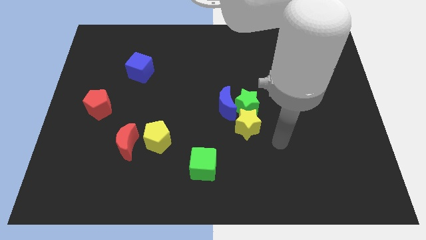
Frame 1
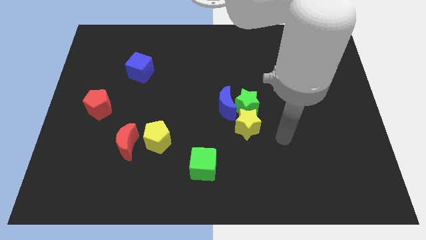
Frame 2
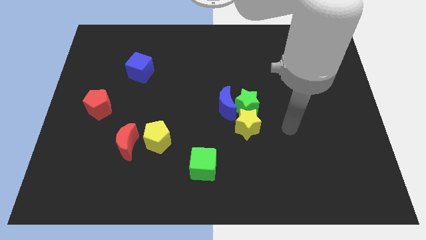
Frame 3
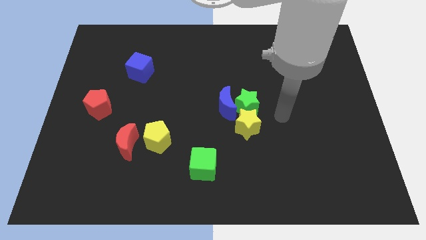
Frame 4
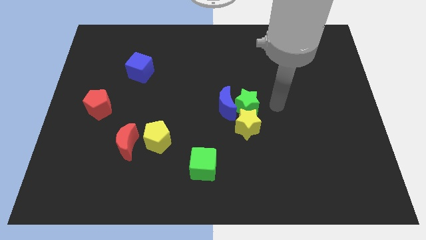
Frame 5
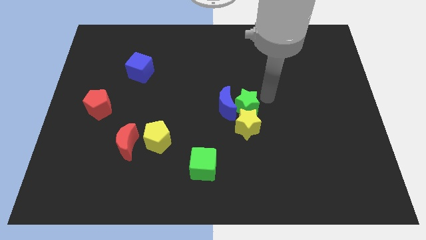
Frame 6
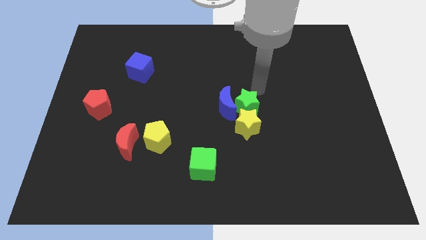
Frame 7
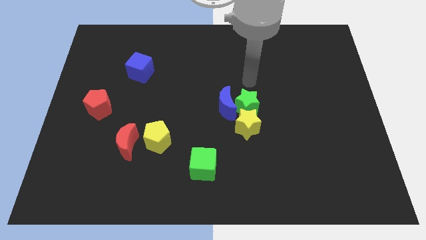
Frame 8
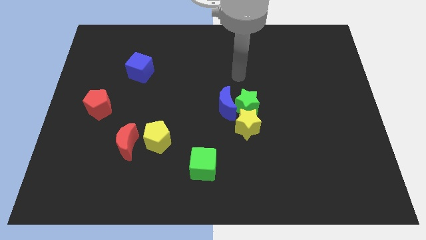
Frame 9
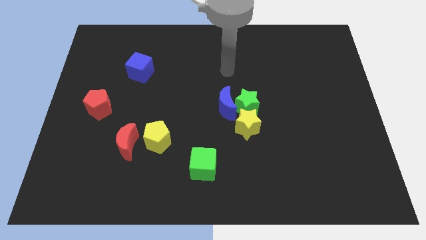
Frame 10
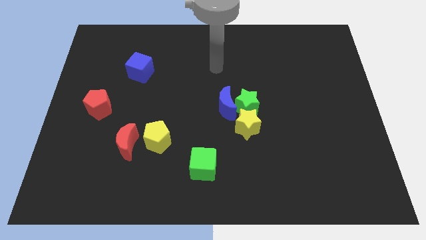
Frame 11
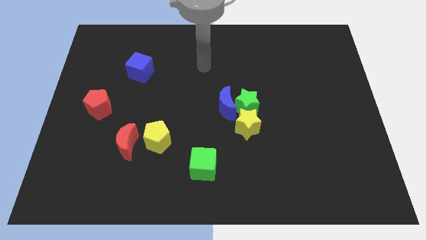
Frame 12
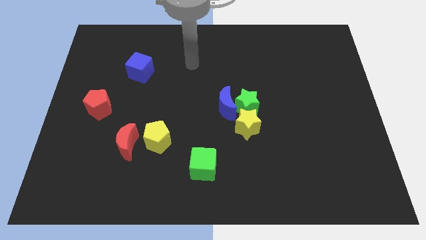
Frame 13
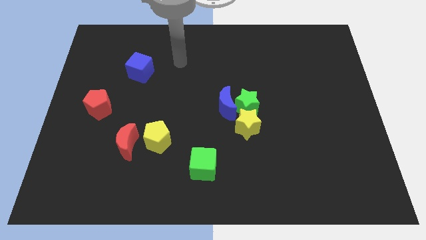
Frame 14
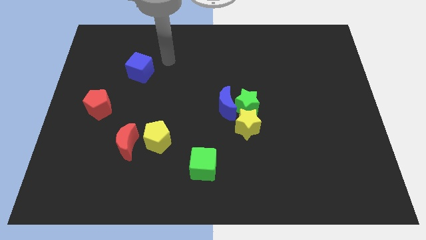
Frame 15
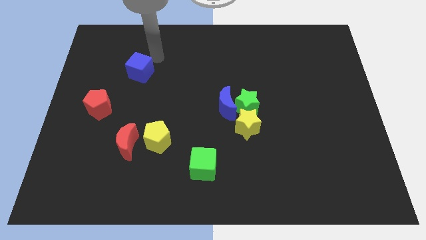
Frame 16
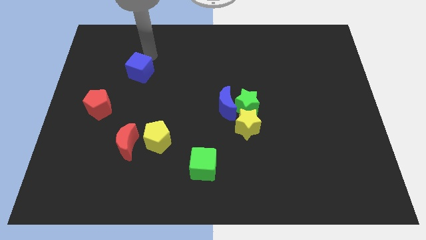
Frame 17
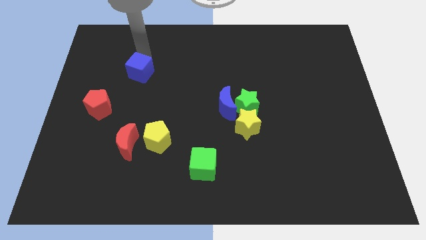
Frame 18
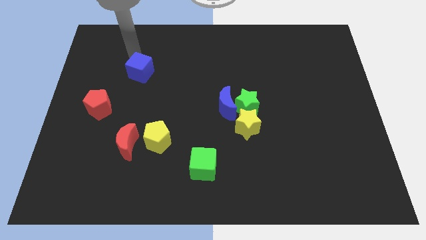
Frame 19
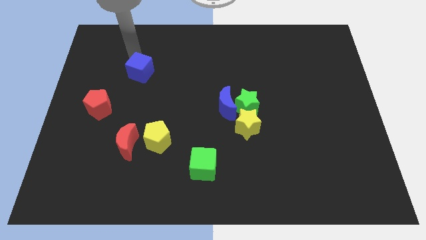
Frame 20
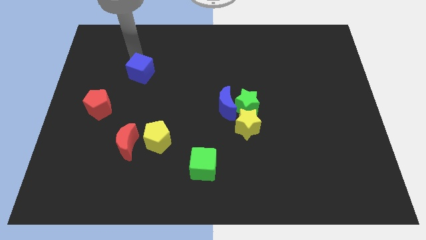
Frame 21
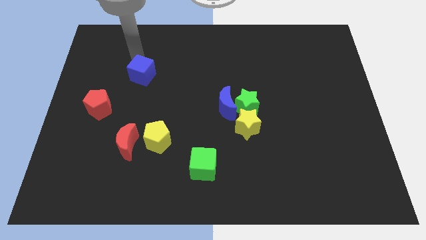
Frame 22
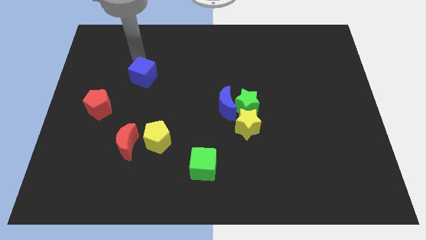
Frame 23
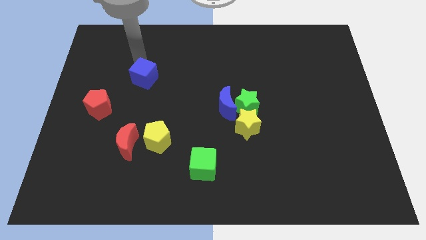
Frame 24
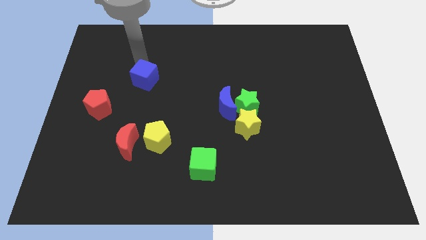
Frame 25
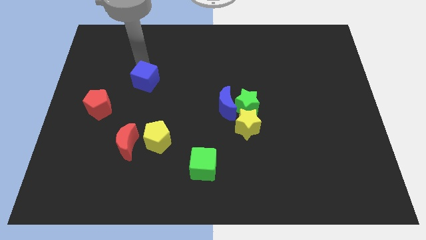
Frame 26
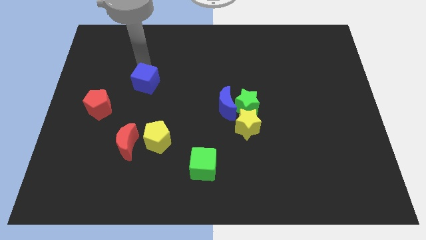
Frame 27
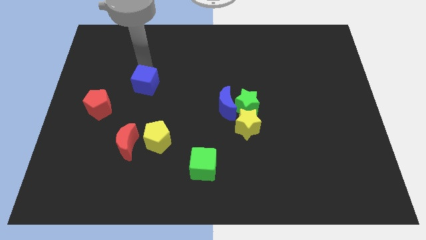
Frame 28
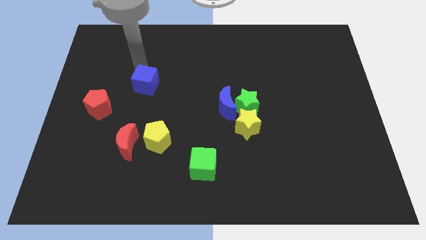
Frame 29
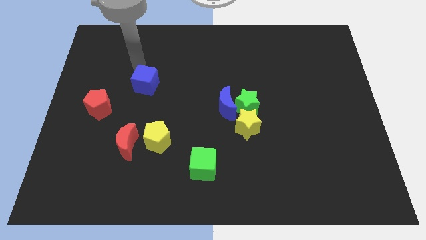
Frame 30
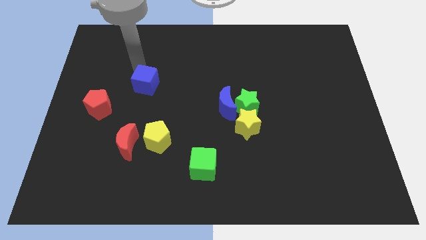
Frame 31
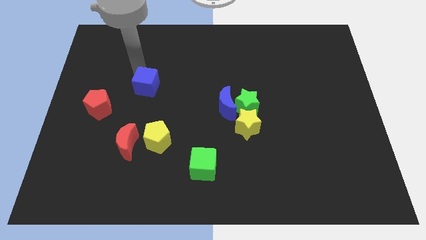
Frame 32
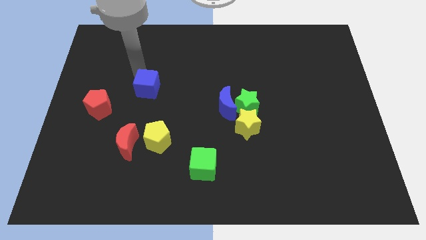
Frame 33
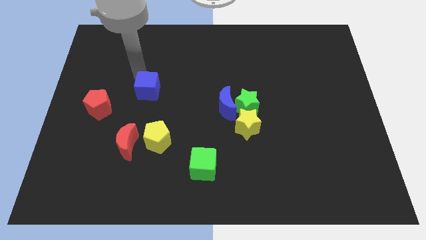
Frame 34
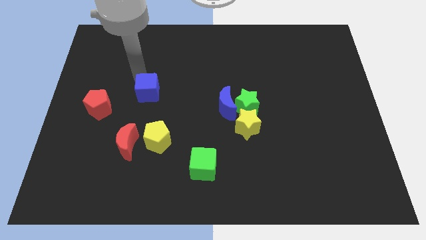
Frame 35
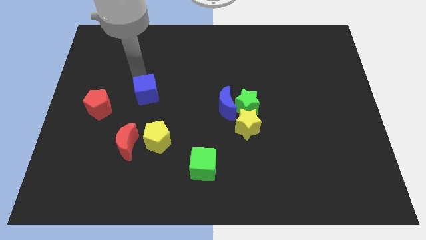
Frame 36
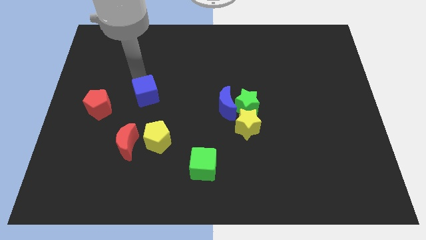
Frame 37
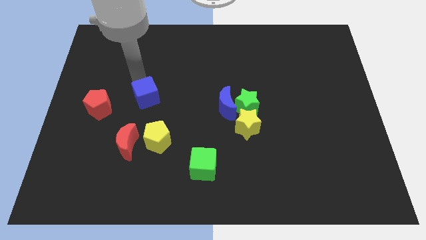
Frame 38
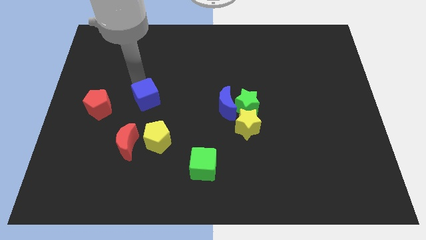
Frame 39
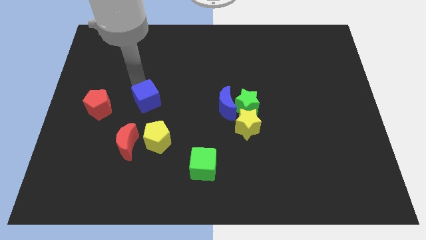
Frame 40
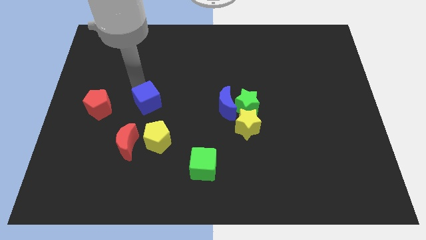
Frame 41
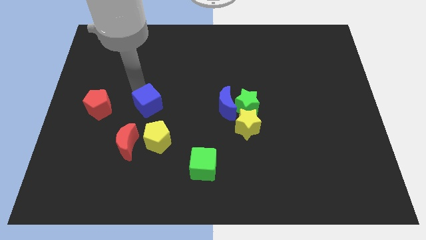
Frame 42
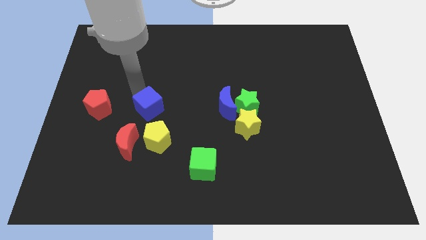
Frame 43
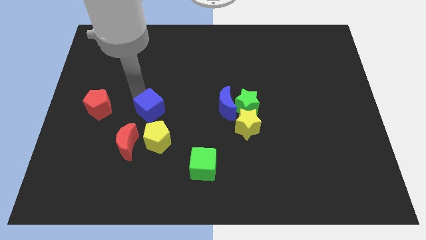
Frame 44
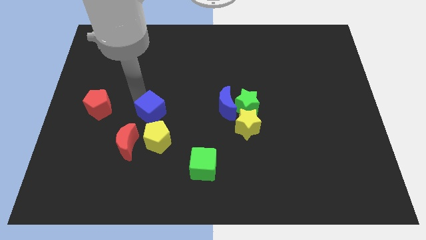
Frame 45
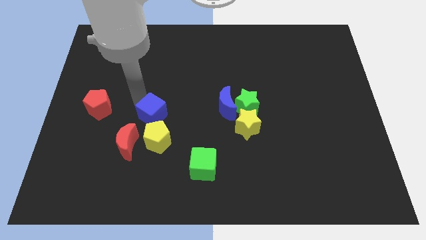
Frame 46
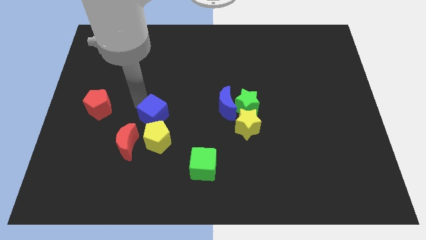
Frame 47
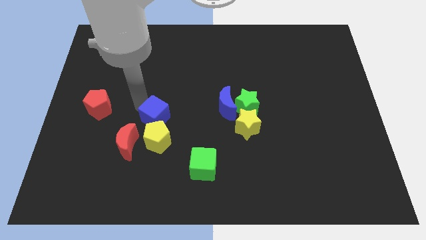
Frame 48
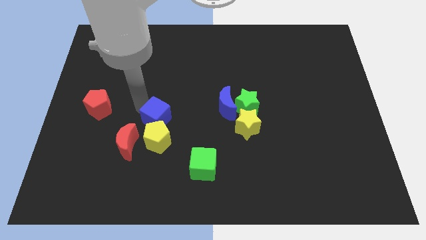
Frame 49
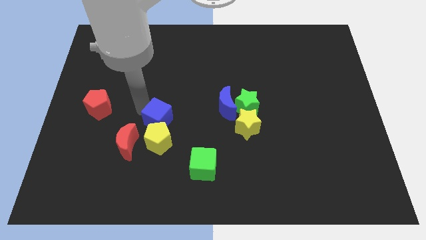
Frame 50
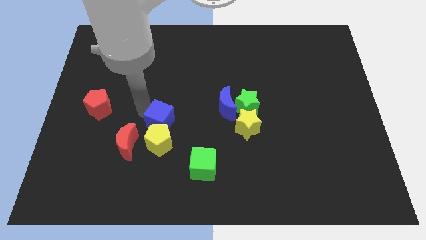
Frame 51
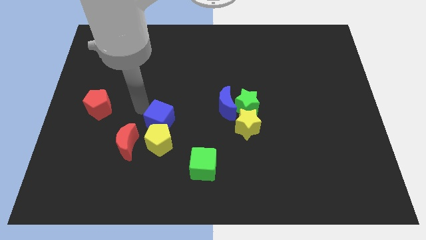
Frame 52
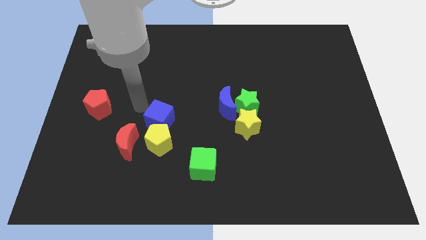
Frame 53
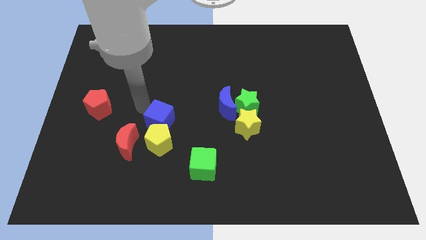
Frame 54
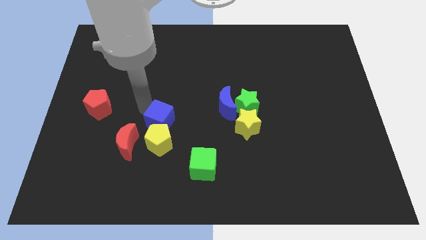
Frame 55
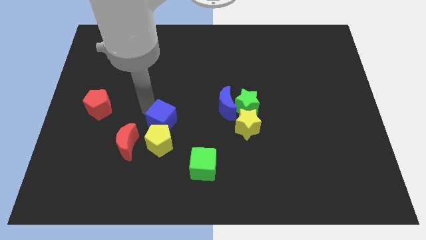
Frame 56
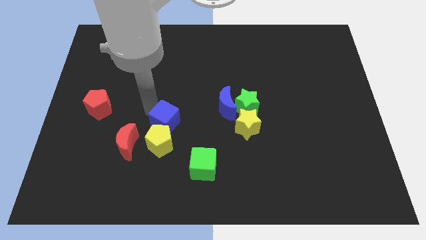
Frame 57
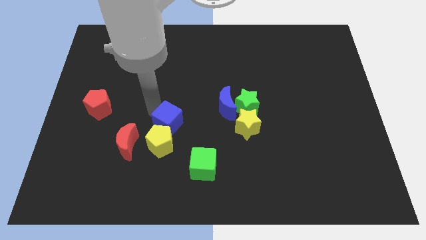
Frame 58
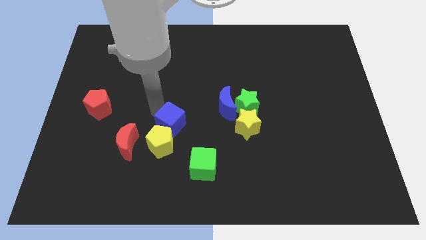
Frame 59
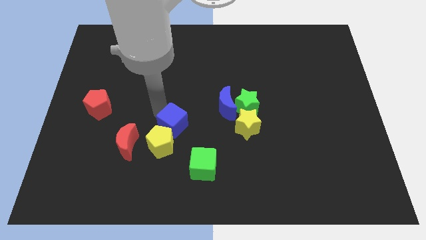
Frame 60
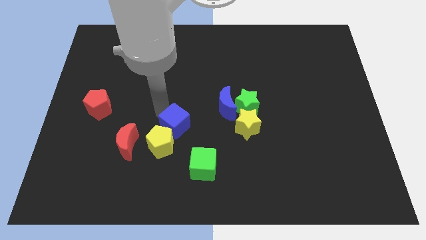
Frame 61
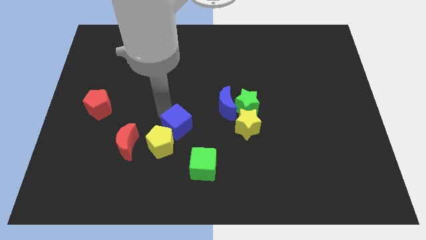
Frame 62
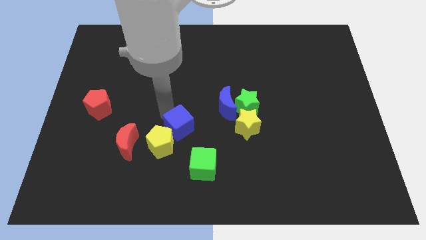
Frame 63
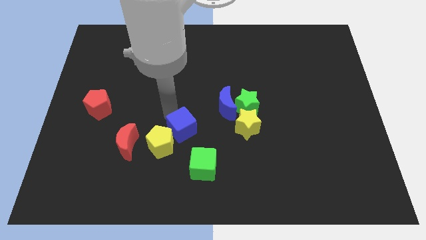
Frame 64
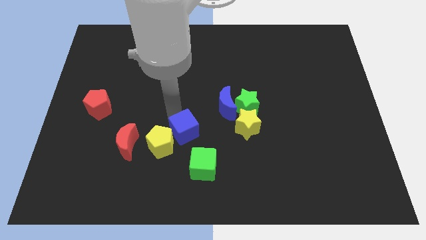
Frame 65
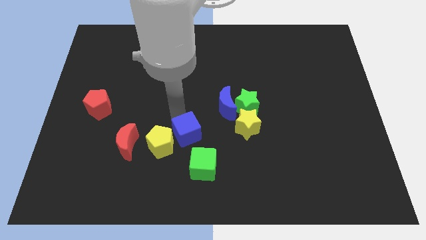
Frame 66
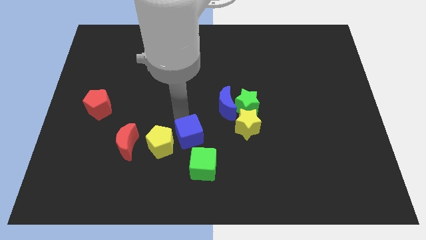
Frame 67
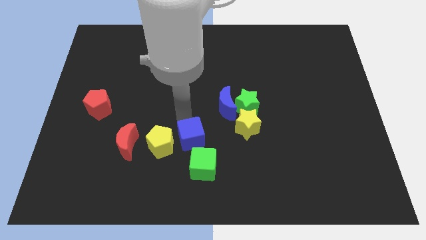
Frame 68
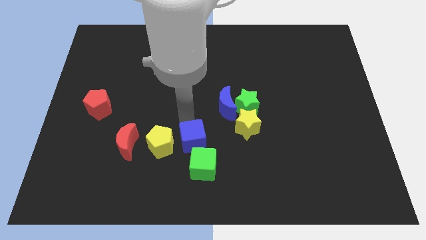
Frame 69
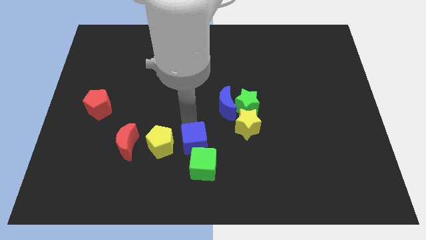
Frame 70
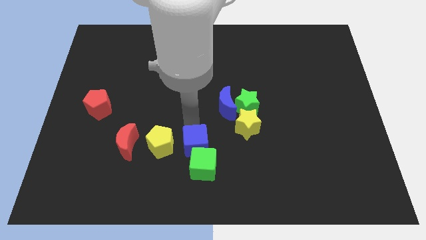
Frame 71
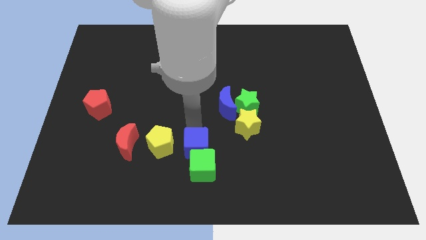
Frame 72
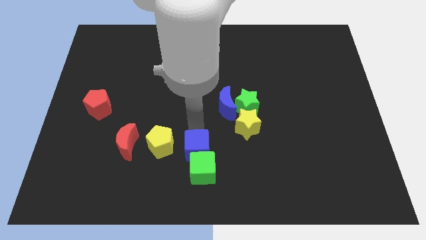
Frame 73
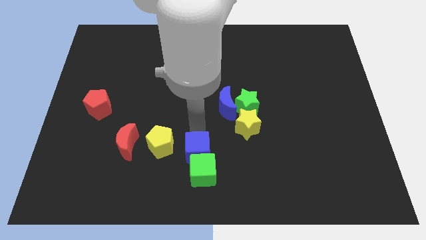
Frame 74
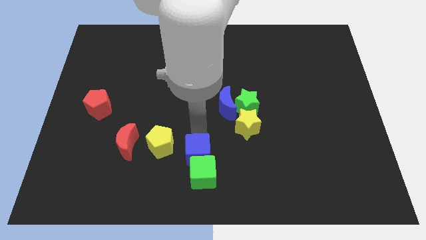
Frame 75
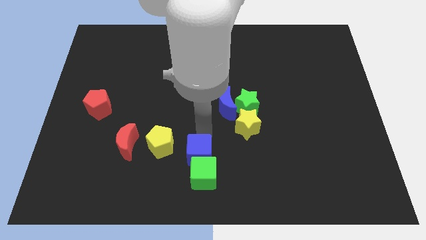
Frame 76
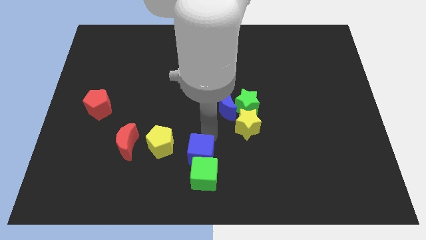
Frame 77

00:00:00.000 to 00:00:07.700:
push the blue cube to the bottom side
